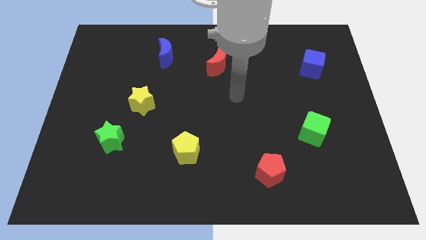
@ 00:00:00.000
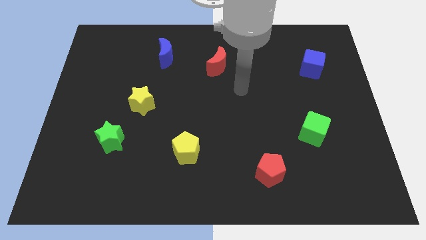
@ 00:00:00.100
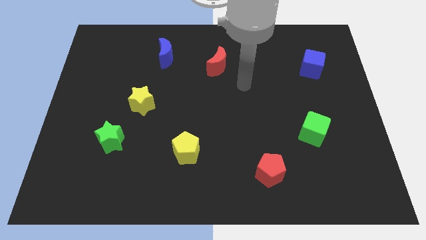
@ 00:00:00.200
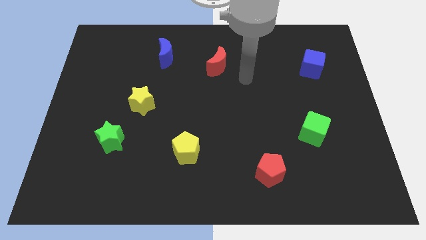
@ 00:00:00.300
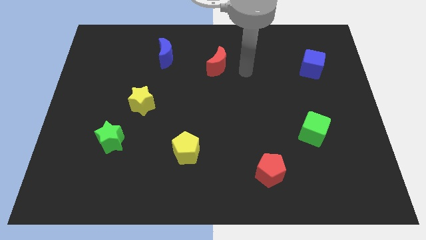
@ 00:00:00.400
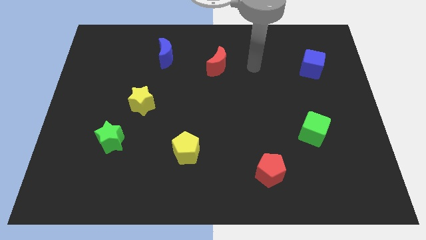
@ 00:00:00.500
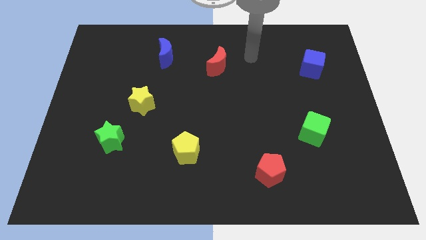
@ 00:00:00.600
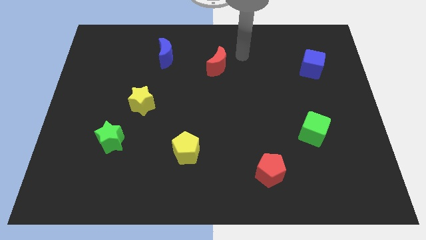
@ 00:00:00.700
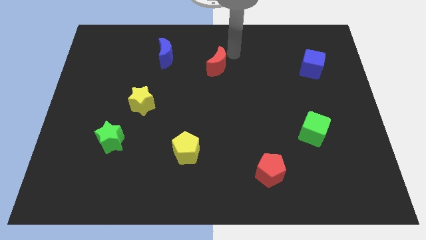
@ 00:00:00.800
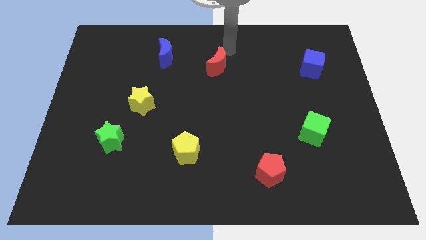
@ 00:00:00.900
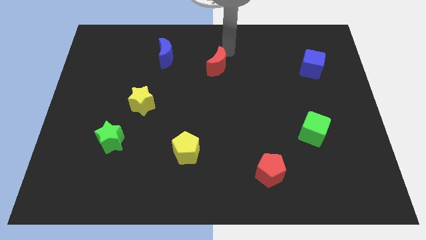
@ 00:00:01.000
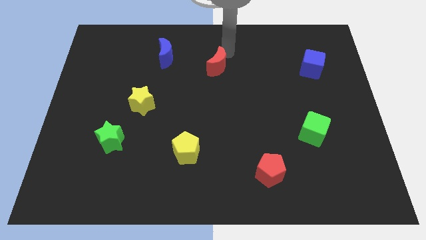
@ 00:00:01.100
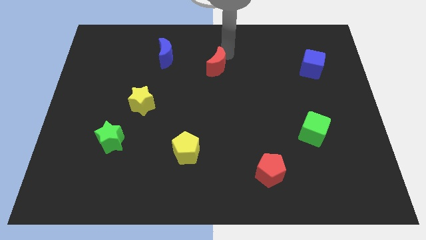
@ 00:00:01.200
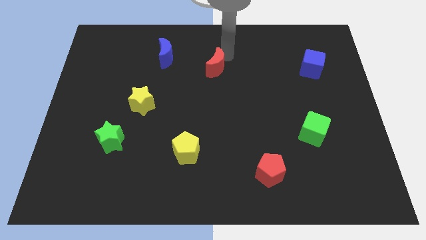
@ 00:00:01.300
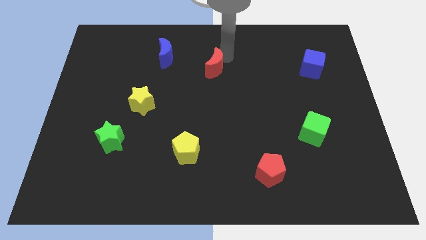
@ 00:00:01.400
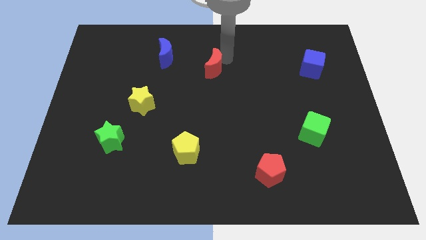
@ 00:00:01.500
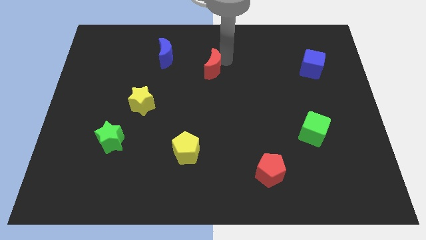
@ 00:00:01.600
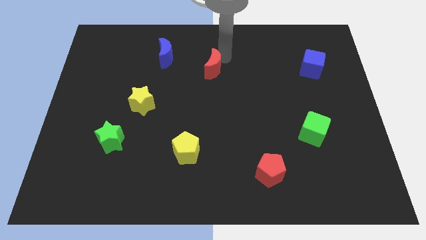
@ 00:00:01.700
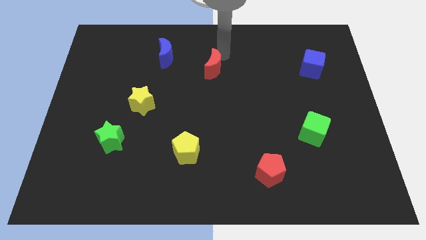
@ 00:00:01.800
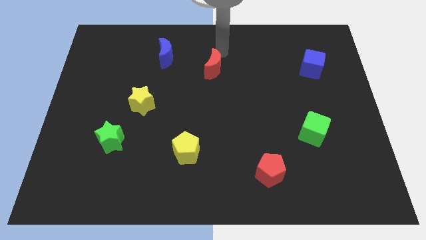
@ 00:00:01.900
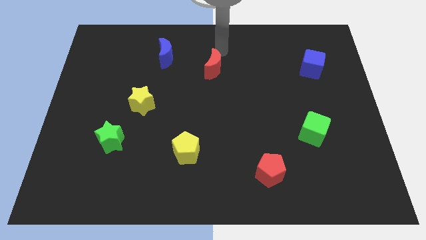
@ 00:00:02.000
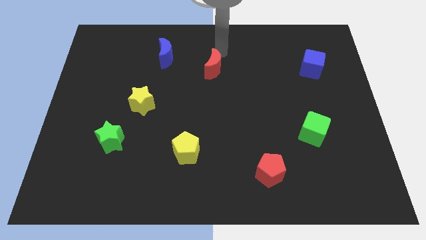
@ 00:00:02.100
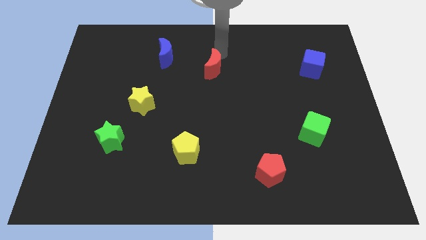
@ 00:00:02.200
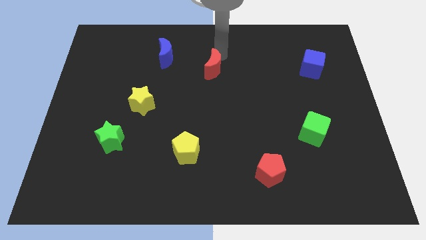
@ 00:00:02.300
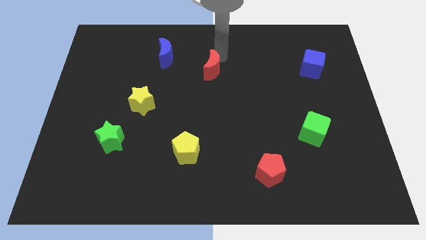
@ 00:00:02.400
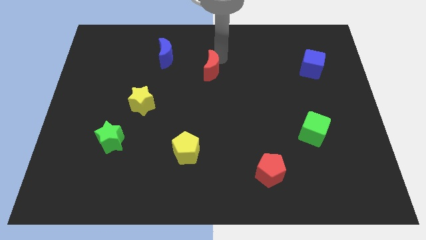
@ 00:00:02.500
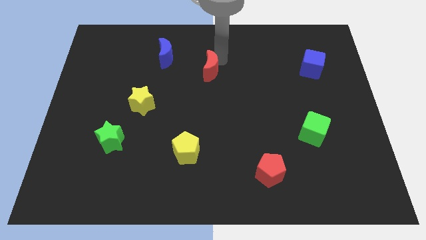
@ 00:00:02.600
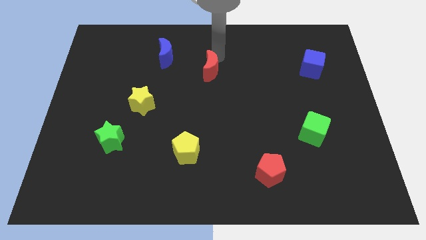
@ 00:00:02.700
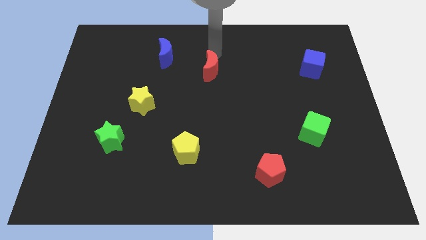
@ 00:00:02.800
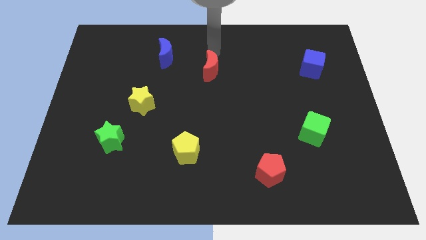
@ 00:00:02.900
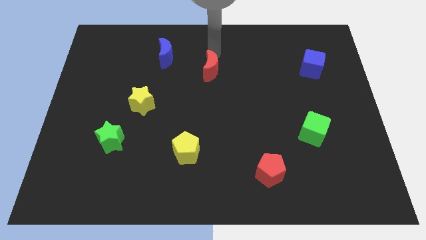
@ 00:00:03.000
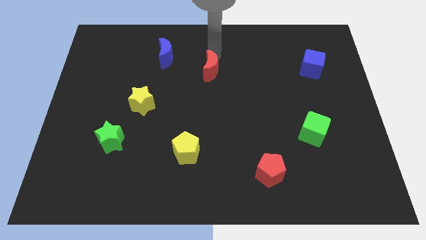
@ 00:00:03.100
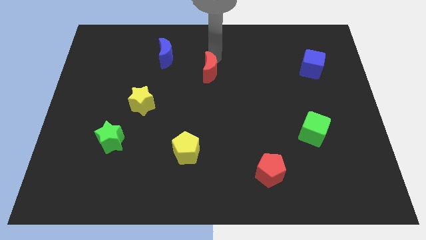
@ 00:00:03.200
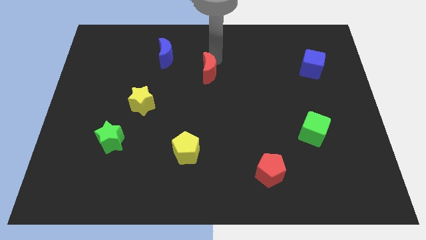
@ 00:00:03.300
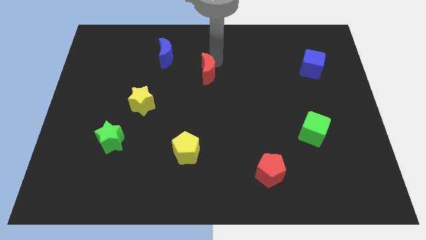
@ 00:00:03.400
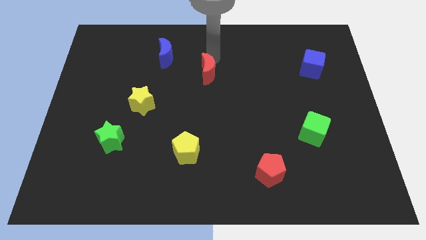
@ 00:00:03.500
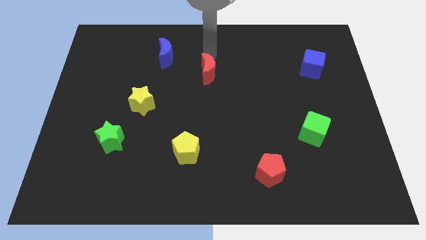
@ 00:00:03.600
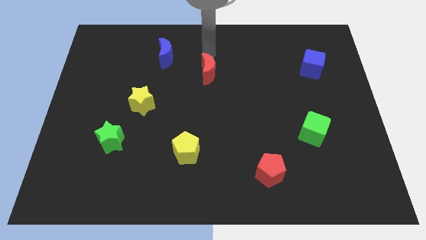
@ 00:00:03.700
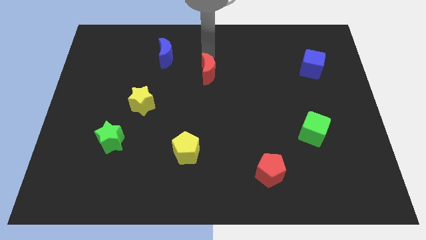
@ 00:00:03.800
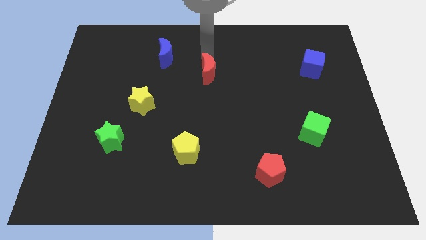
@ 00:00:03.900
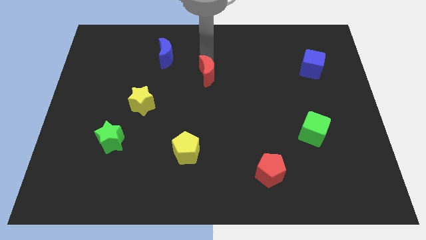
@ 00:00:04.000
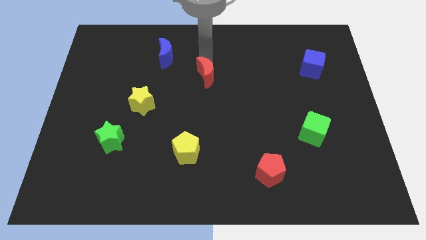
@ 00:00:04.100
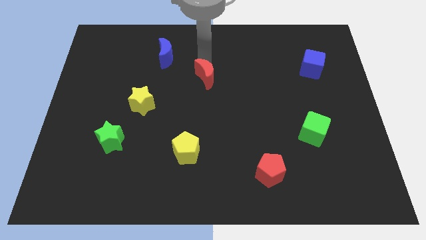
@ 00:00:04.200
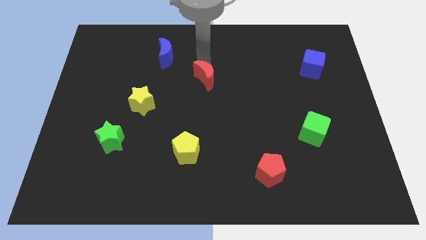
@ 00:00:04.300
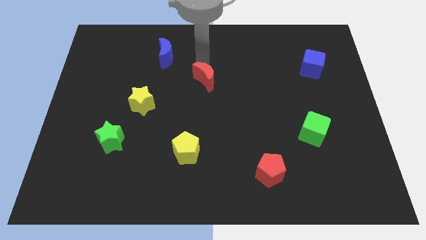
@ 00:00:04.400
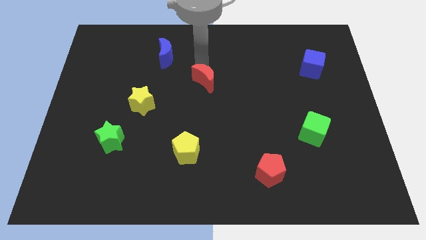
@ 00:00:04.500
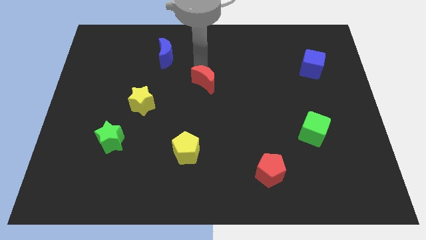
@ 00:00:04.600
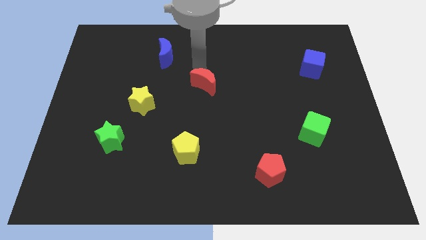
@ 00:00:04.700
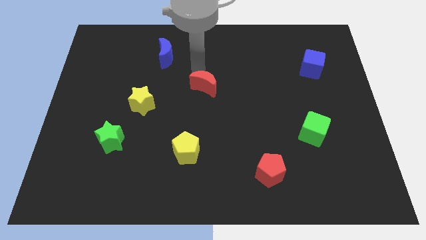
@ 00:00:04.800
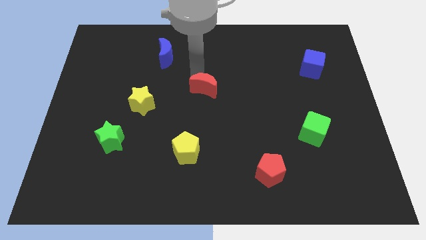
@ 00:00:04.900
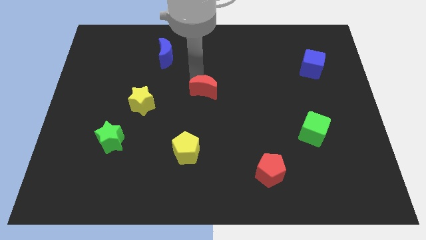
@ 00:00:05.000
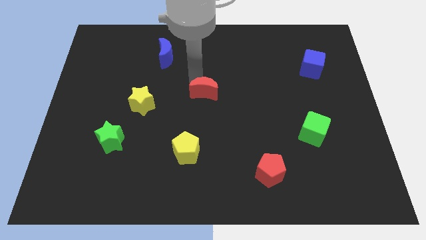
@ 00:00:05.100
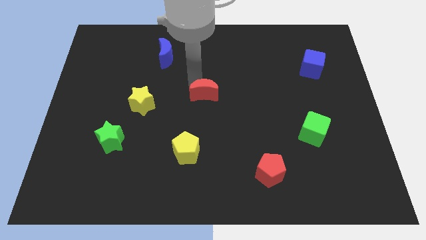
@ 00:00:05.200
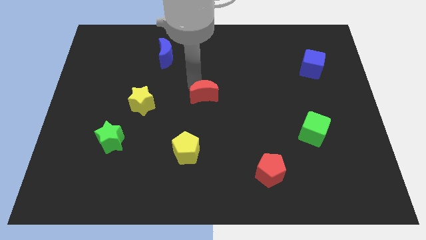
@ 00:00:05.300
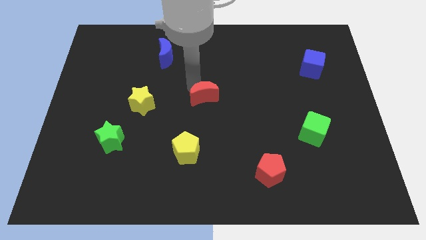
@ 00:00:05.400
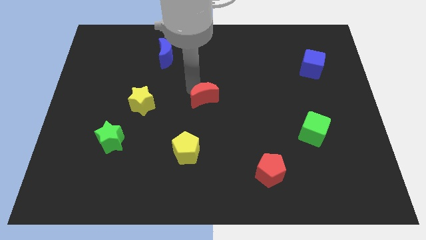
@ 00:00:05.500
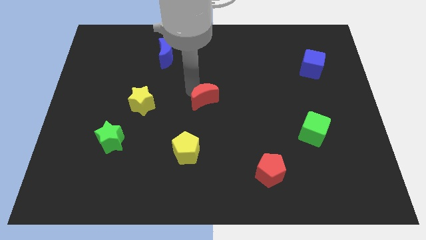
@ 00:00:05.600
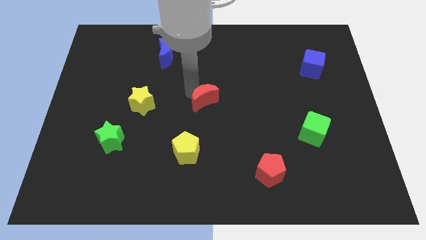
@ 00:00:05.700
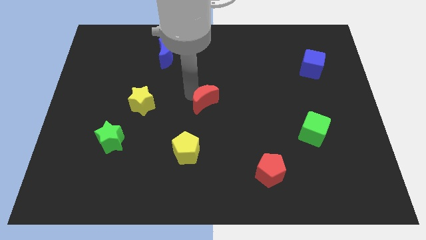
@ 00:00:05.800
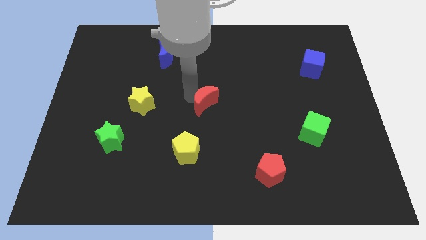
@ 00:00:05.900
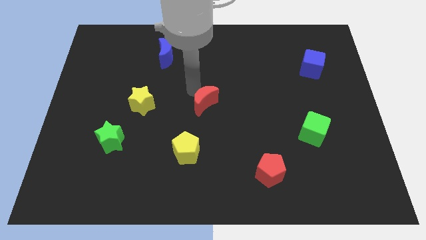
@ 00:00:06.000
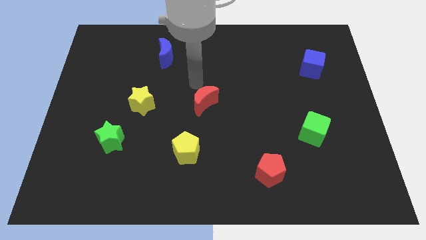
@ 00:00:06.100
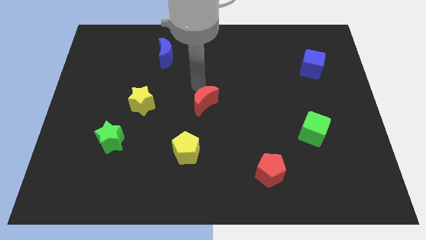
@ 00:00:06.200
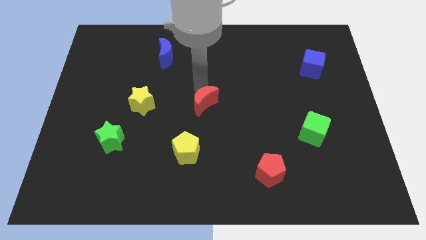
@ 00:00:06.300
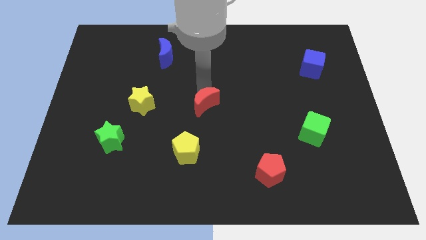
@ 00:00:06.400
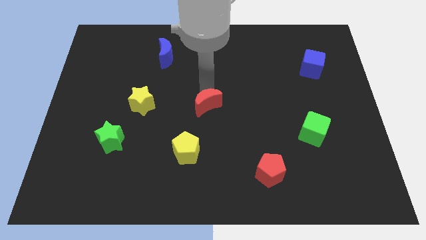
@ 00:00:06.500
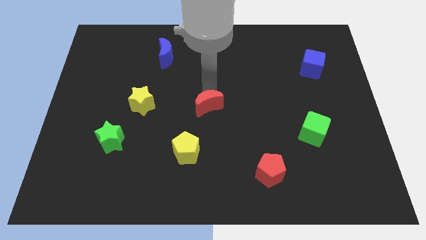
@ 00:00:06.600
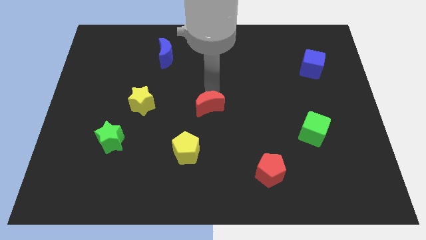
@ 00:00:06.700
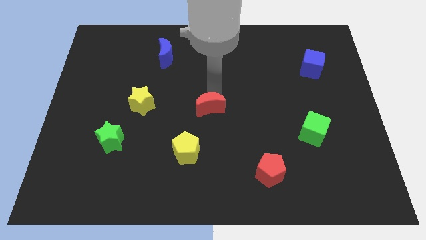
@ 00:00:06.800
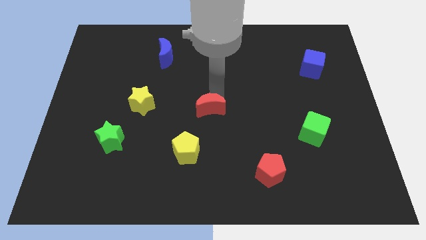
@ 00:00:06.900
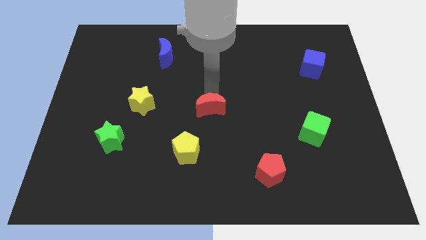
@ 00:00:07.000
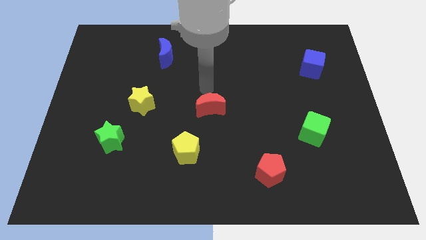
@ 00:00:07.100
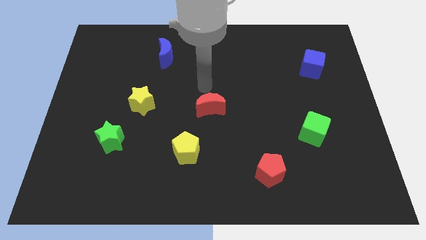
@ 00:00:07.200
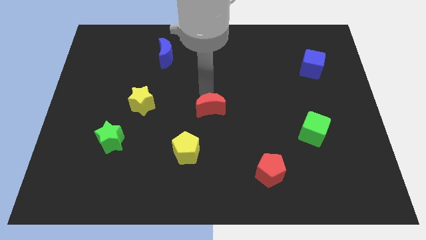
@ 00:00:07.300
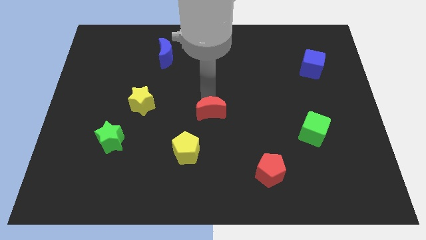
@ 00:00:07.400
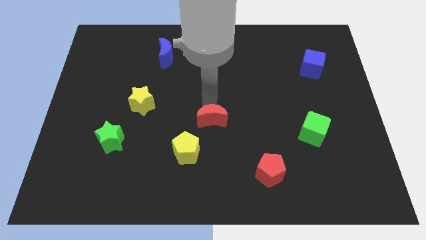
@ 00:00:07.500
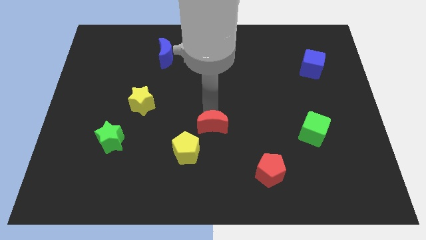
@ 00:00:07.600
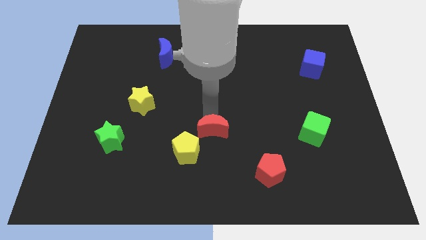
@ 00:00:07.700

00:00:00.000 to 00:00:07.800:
move the red moon down

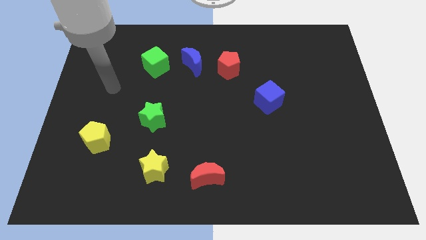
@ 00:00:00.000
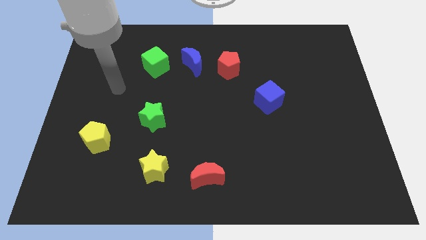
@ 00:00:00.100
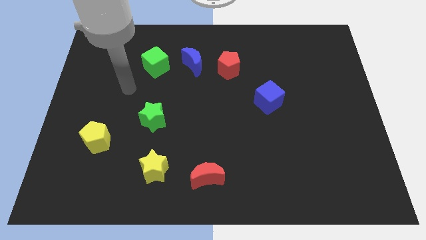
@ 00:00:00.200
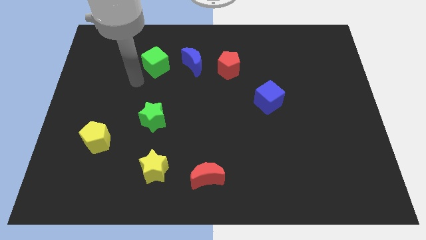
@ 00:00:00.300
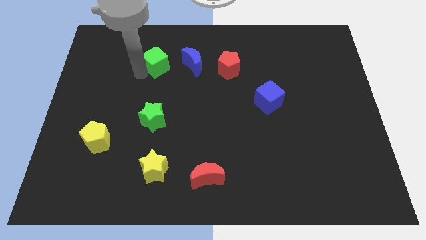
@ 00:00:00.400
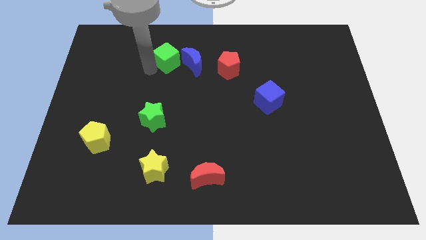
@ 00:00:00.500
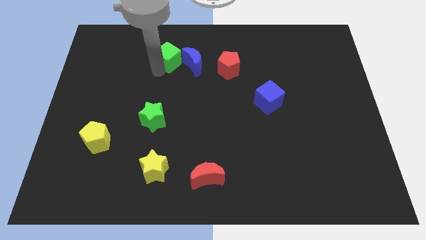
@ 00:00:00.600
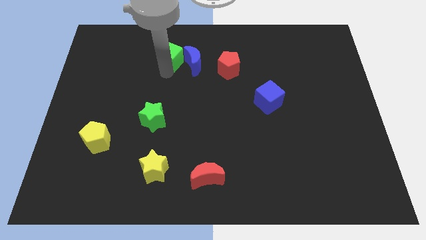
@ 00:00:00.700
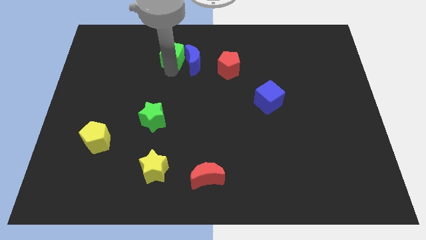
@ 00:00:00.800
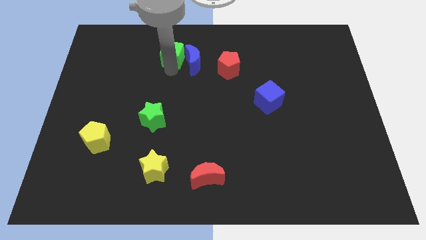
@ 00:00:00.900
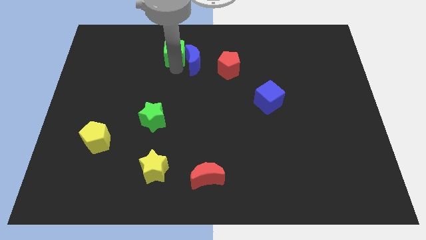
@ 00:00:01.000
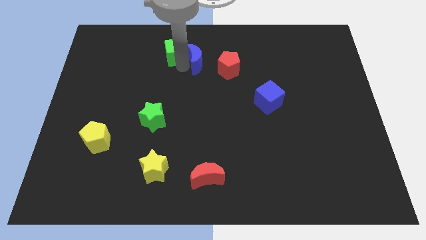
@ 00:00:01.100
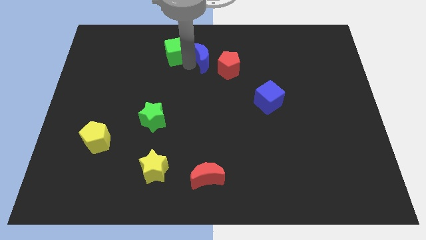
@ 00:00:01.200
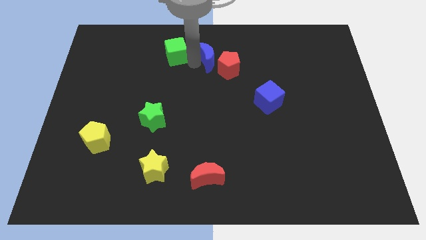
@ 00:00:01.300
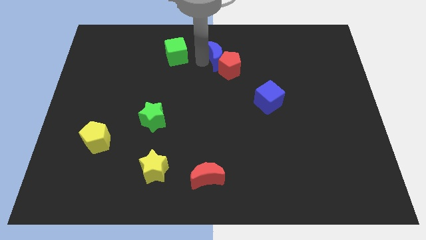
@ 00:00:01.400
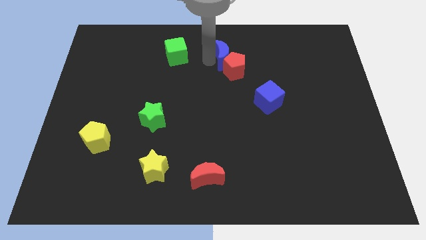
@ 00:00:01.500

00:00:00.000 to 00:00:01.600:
push the blue moon right somewhat
